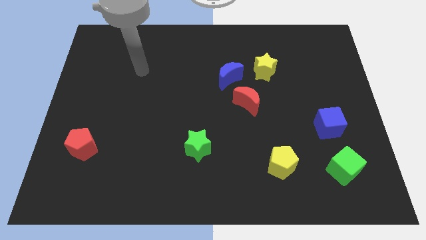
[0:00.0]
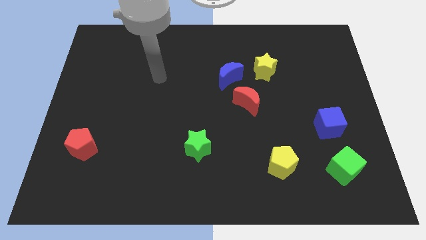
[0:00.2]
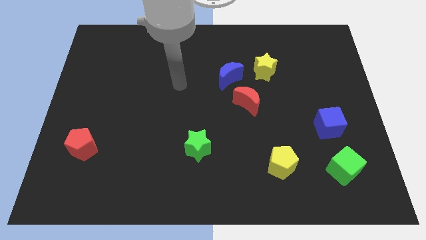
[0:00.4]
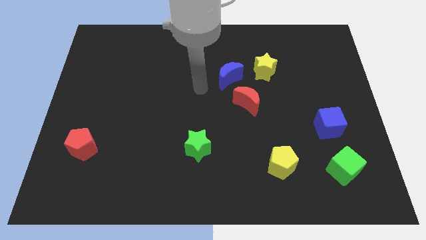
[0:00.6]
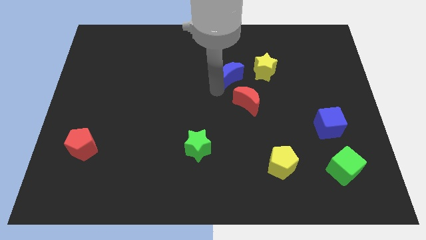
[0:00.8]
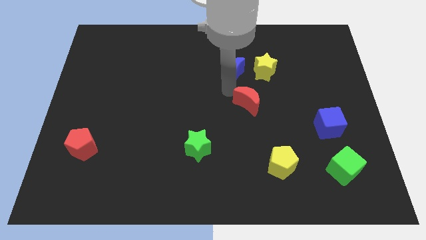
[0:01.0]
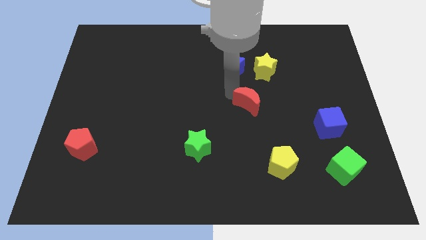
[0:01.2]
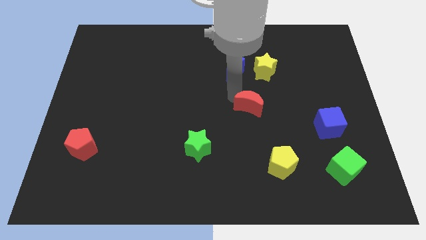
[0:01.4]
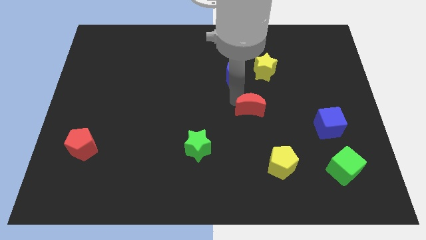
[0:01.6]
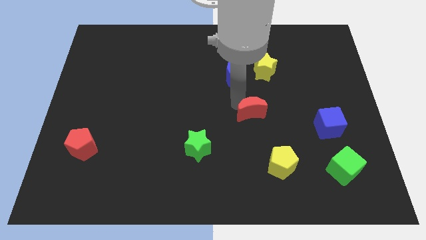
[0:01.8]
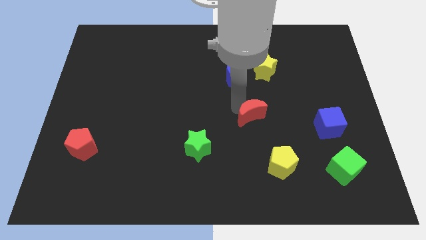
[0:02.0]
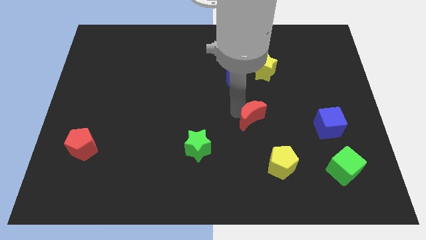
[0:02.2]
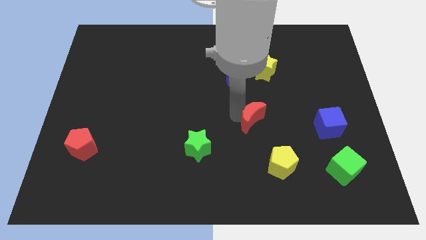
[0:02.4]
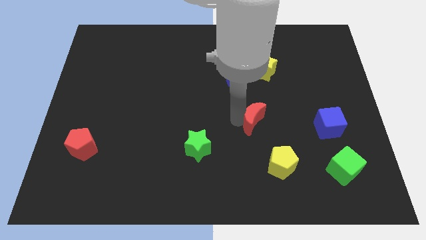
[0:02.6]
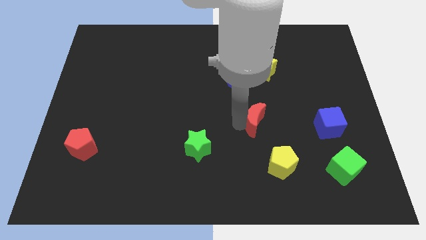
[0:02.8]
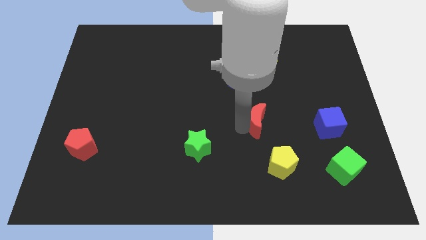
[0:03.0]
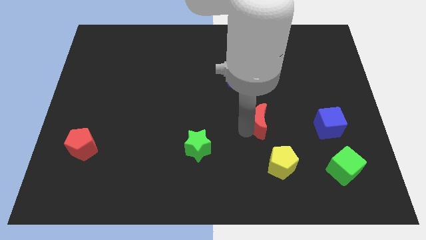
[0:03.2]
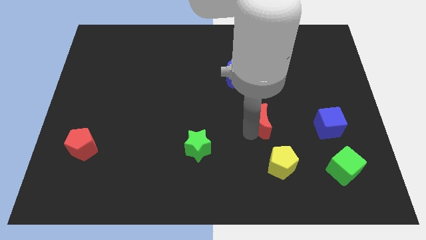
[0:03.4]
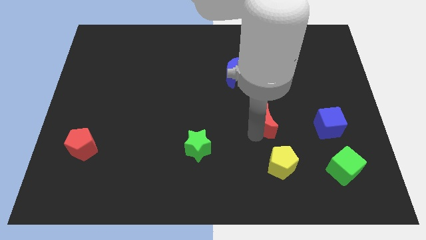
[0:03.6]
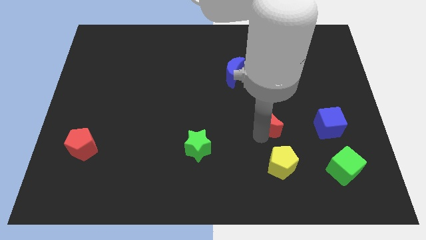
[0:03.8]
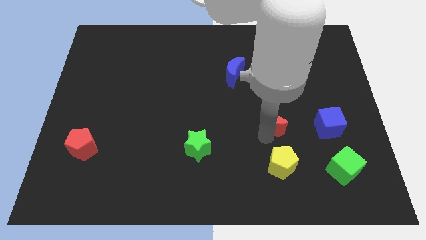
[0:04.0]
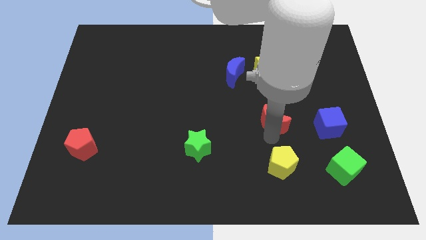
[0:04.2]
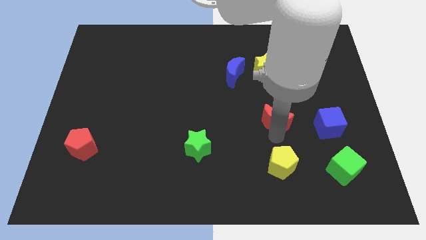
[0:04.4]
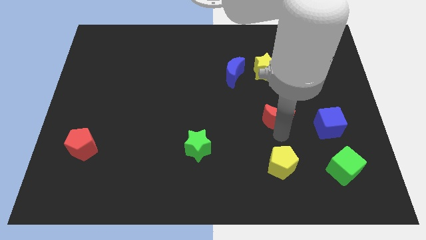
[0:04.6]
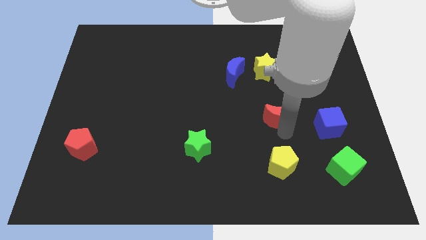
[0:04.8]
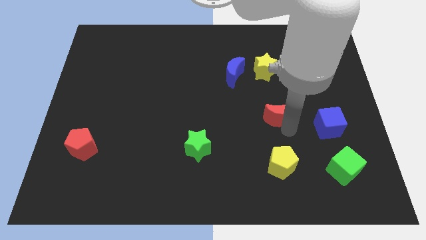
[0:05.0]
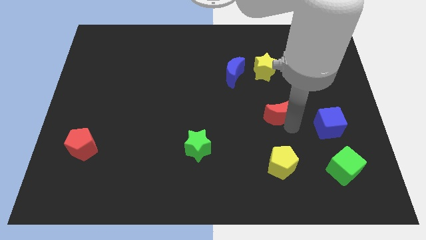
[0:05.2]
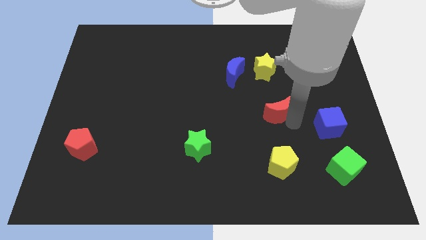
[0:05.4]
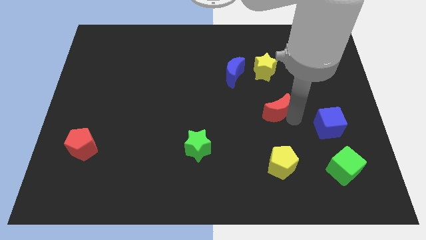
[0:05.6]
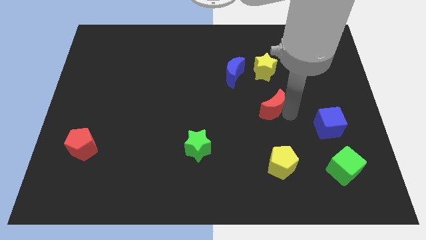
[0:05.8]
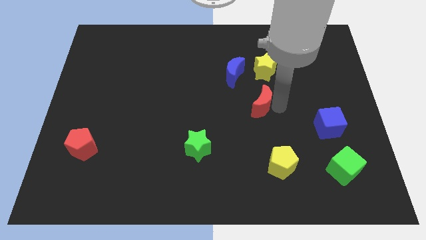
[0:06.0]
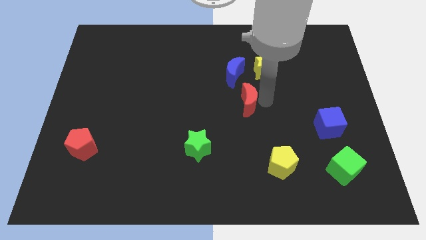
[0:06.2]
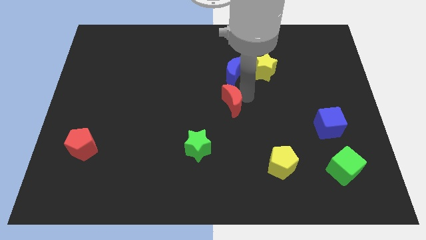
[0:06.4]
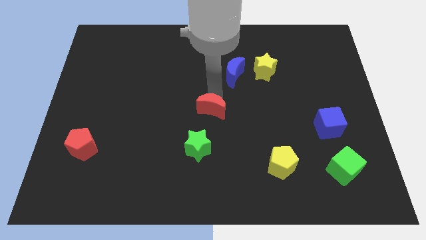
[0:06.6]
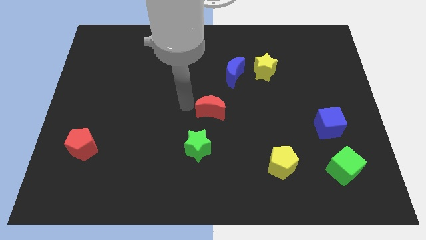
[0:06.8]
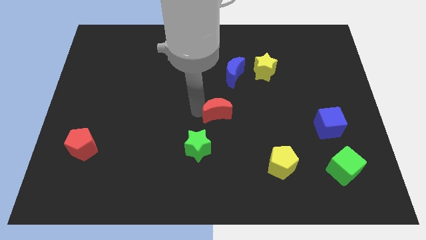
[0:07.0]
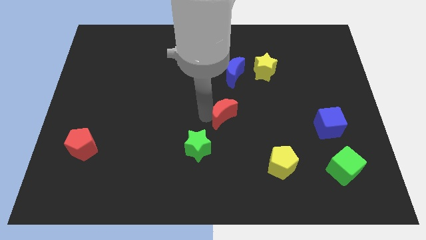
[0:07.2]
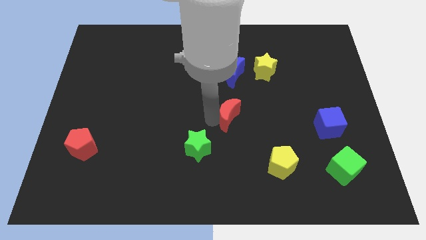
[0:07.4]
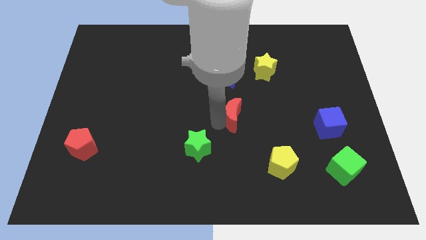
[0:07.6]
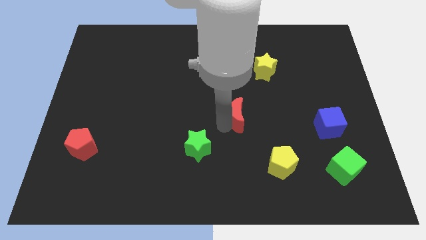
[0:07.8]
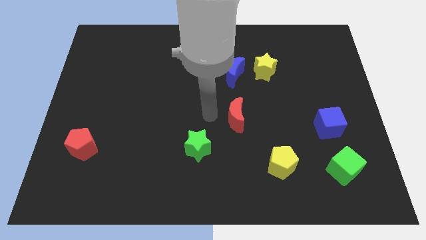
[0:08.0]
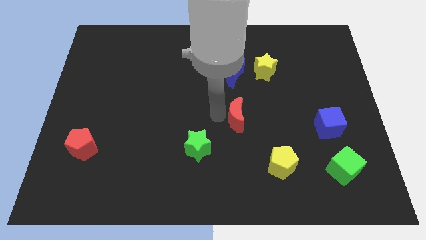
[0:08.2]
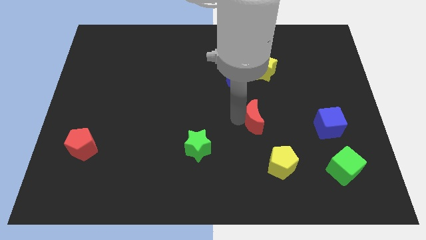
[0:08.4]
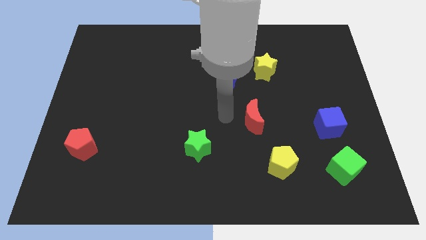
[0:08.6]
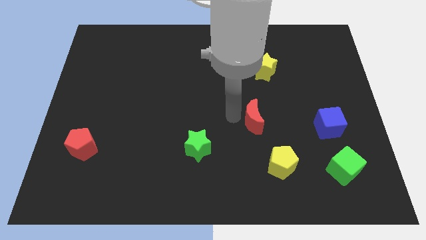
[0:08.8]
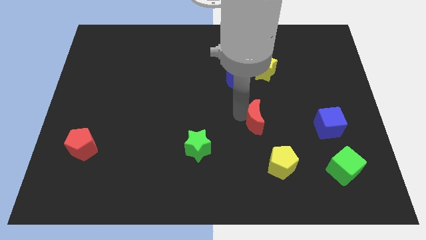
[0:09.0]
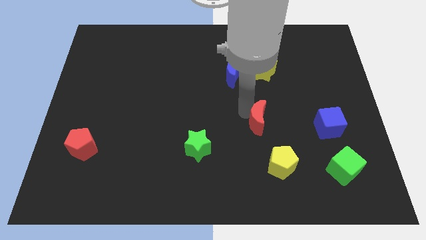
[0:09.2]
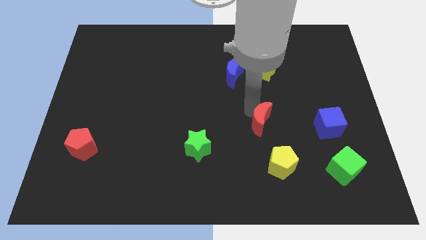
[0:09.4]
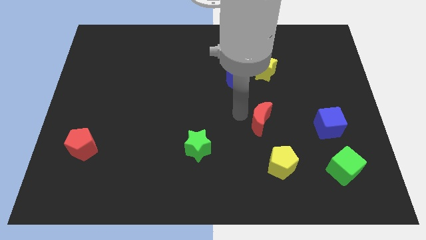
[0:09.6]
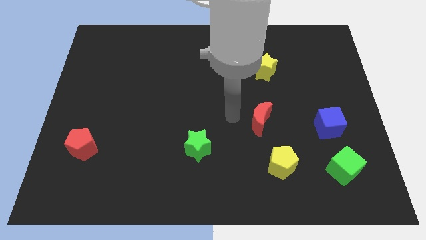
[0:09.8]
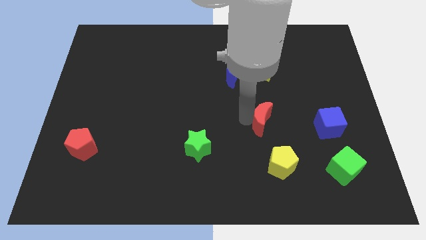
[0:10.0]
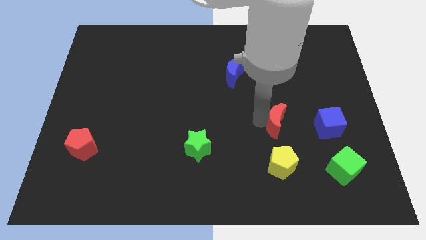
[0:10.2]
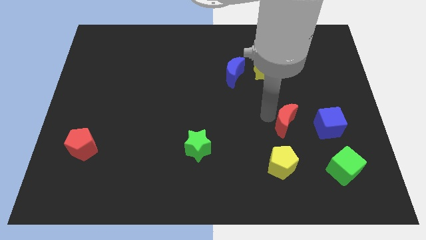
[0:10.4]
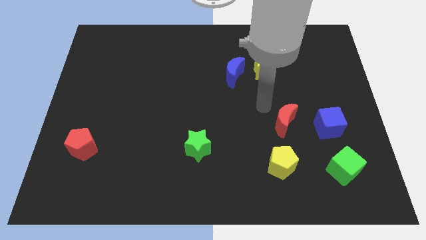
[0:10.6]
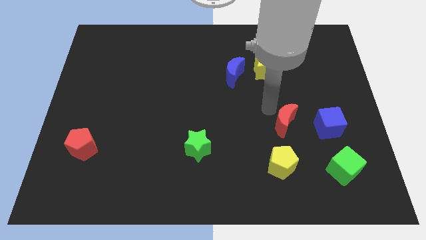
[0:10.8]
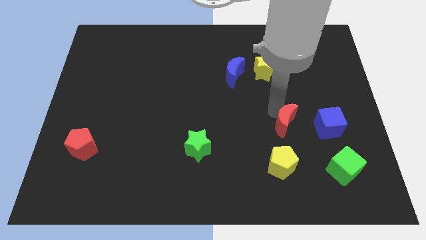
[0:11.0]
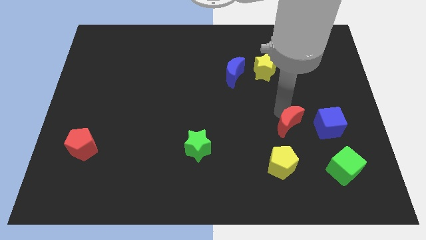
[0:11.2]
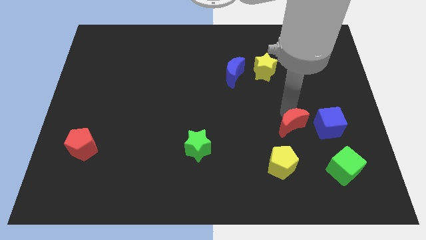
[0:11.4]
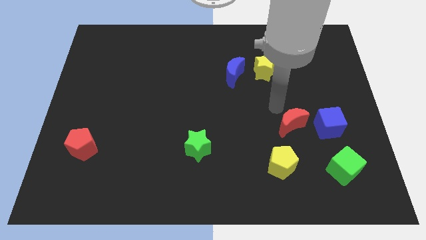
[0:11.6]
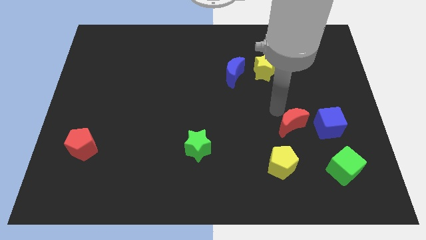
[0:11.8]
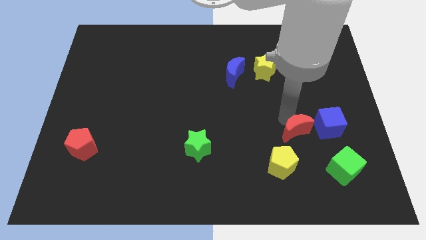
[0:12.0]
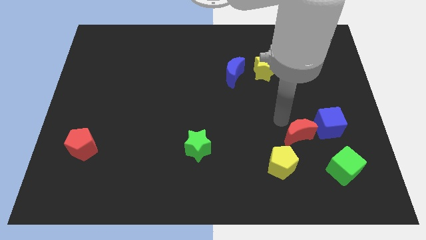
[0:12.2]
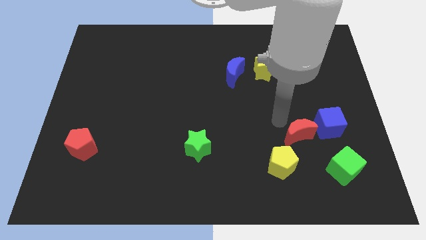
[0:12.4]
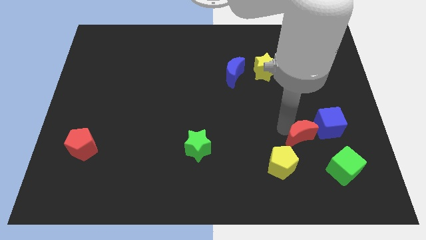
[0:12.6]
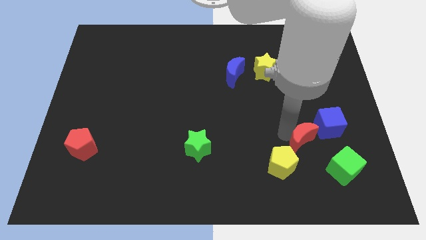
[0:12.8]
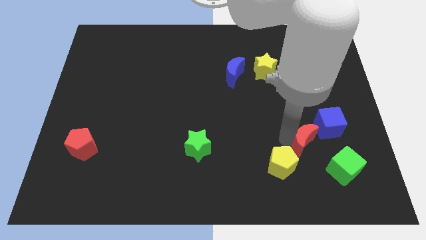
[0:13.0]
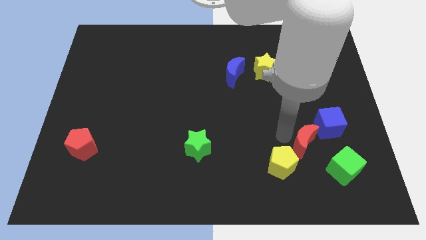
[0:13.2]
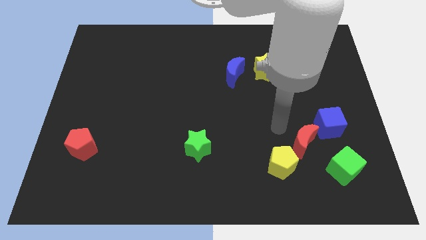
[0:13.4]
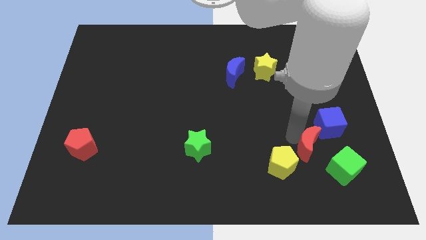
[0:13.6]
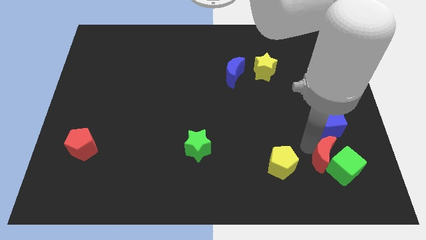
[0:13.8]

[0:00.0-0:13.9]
push the red moon next to the green cube
